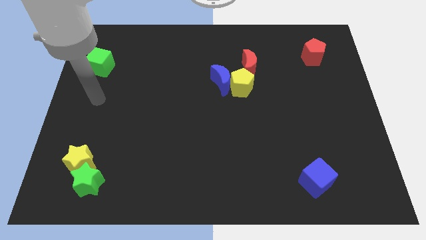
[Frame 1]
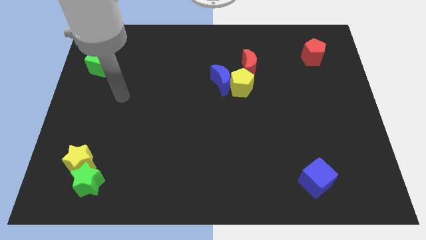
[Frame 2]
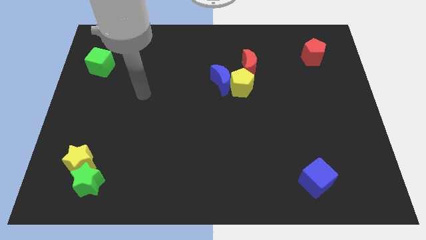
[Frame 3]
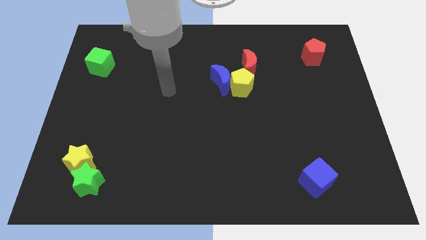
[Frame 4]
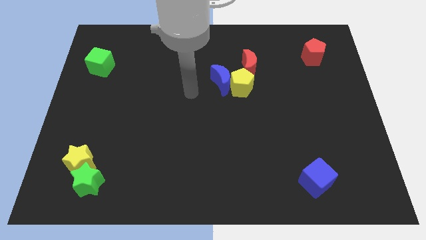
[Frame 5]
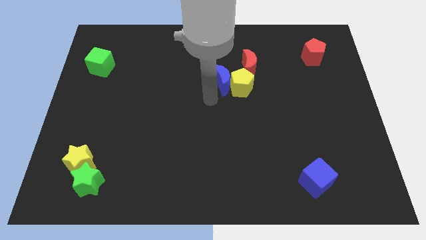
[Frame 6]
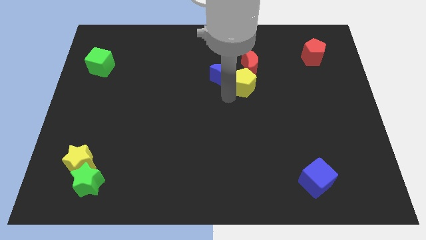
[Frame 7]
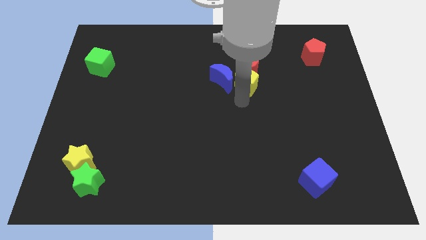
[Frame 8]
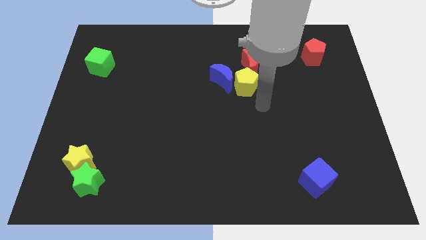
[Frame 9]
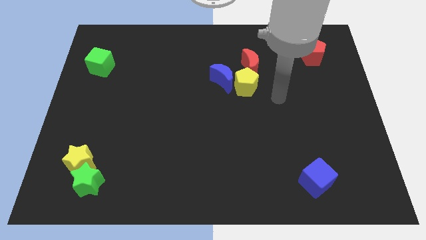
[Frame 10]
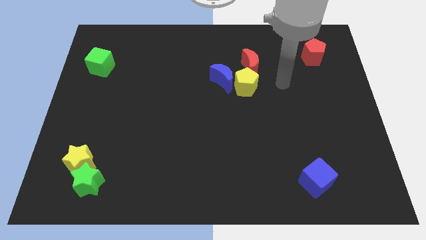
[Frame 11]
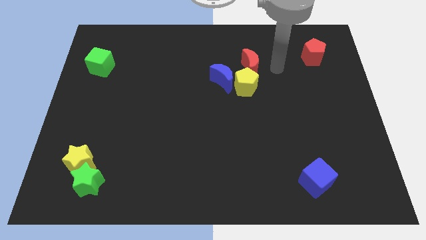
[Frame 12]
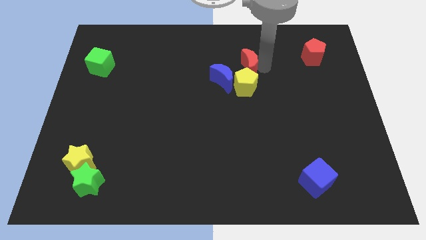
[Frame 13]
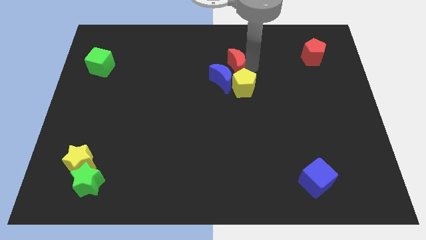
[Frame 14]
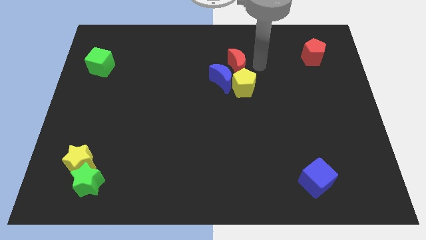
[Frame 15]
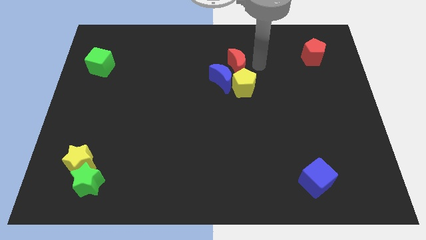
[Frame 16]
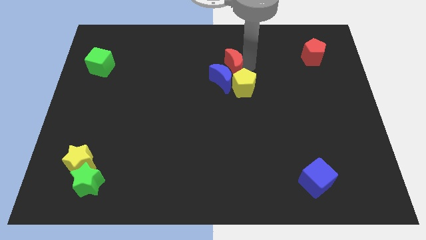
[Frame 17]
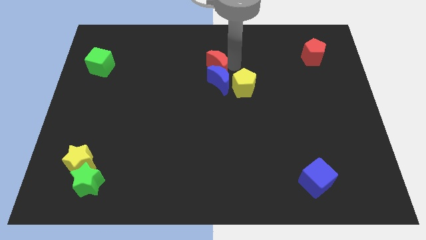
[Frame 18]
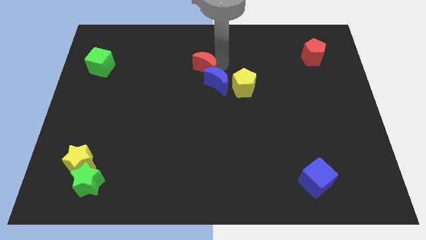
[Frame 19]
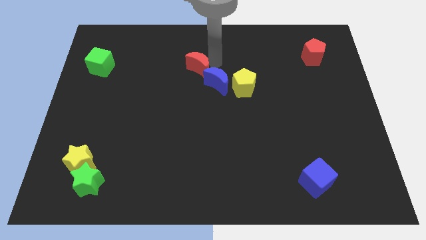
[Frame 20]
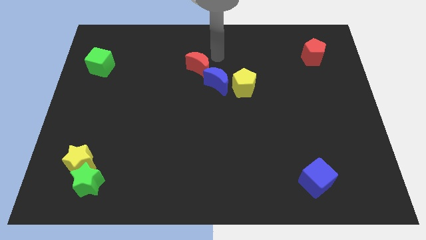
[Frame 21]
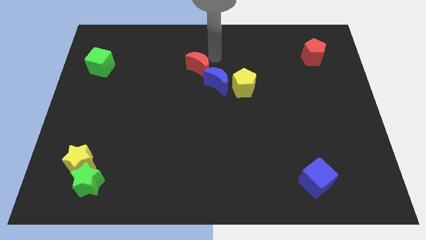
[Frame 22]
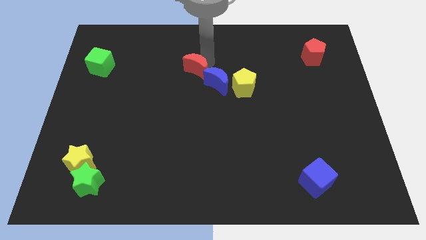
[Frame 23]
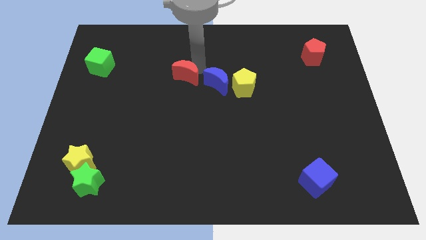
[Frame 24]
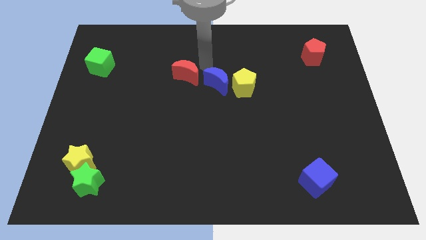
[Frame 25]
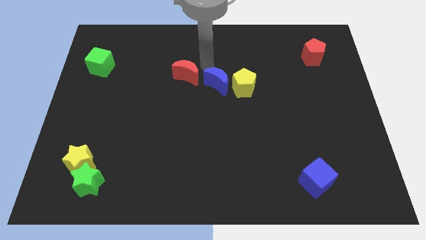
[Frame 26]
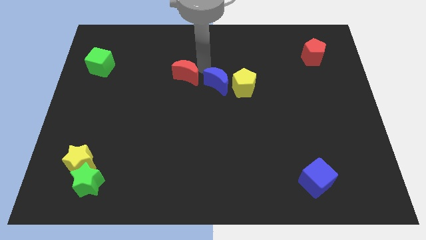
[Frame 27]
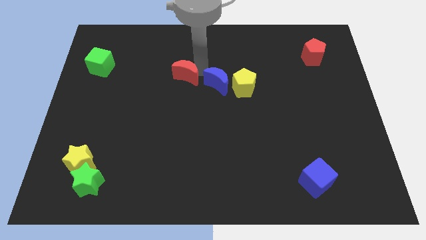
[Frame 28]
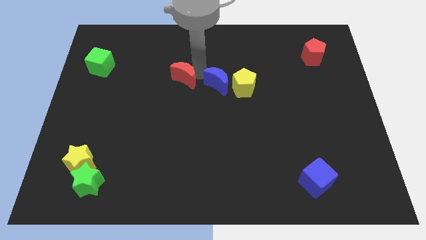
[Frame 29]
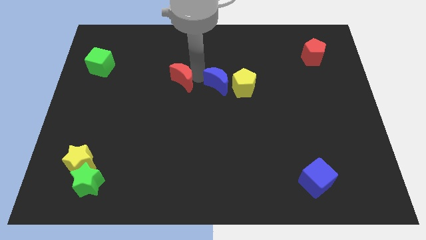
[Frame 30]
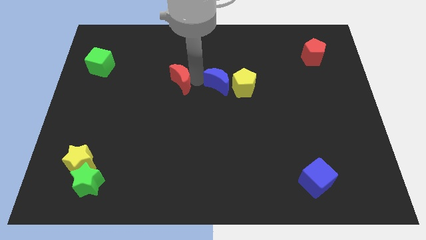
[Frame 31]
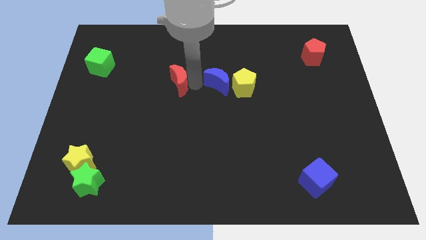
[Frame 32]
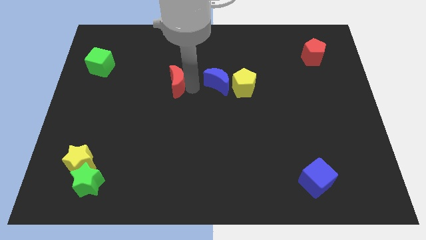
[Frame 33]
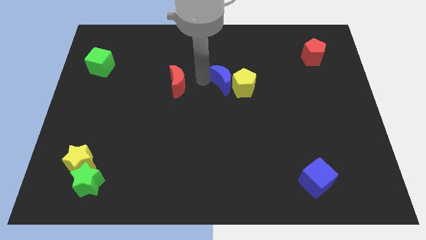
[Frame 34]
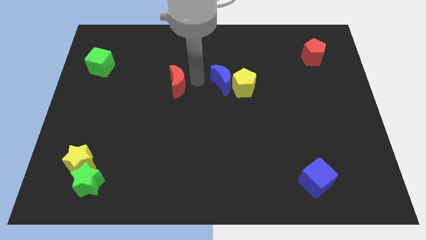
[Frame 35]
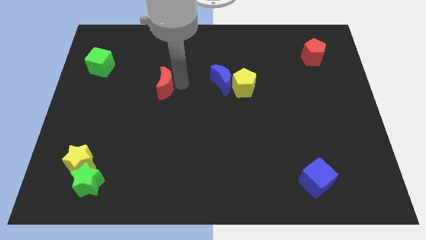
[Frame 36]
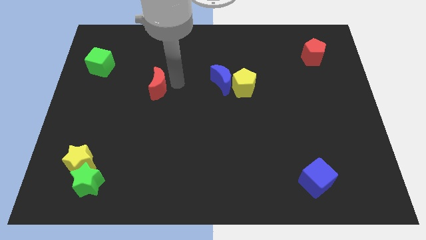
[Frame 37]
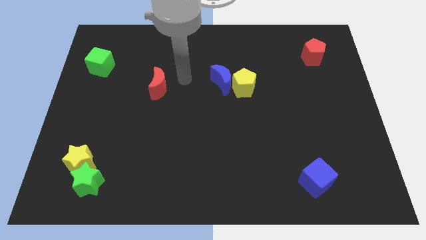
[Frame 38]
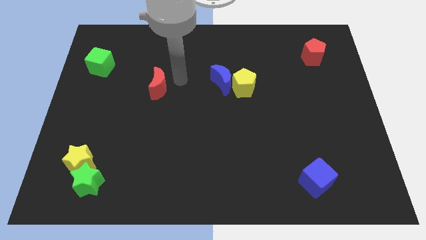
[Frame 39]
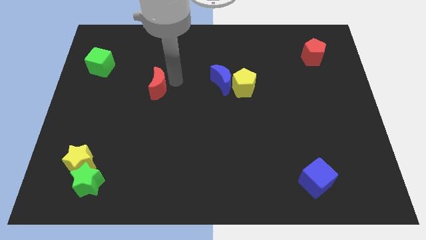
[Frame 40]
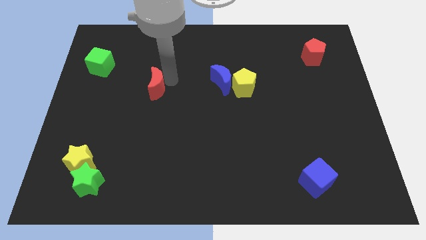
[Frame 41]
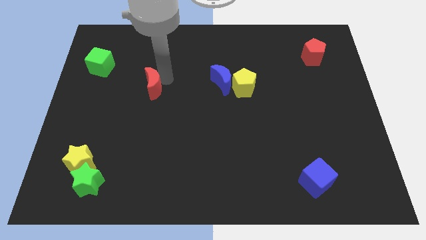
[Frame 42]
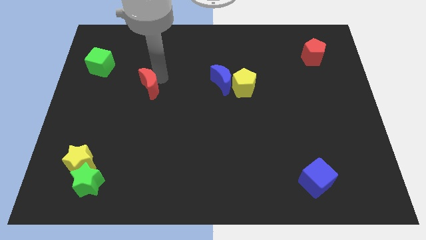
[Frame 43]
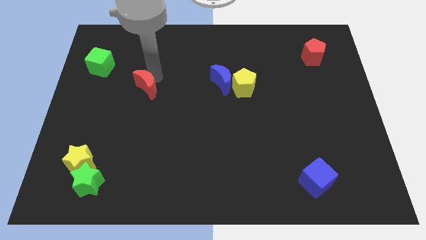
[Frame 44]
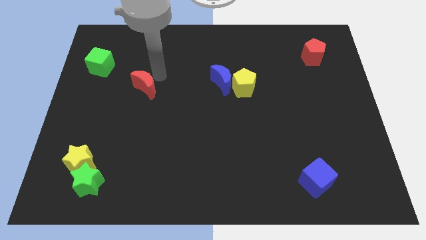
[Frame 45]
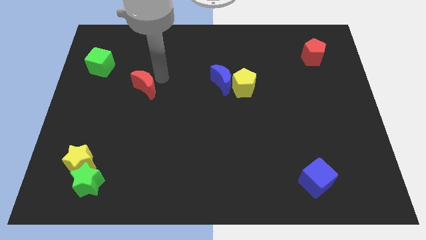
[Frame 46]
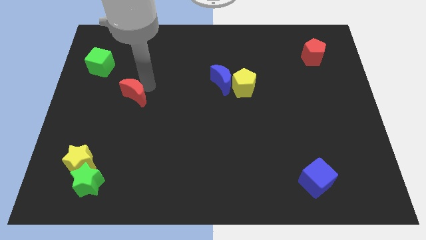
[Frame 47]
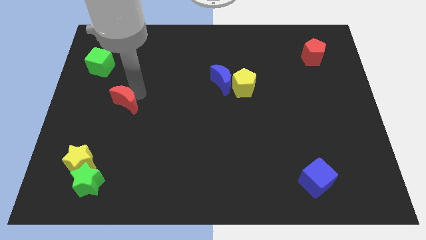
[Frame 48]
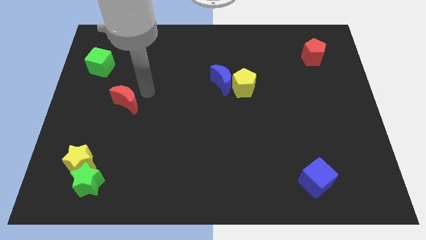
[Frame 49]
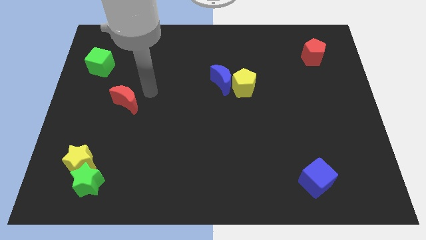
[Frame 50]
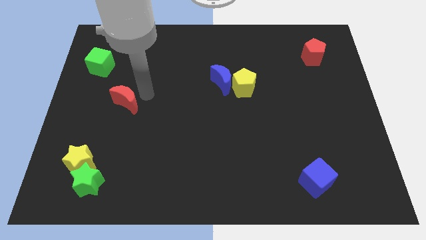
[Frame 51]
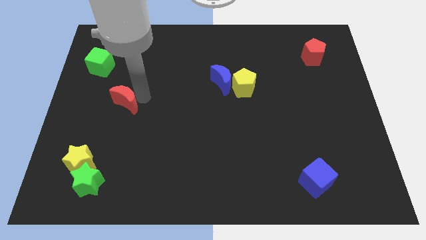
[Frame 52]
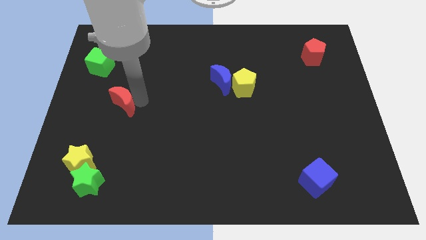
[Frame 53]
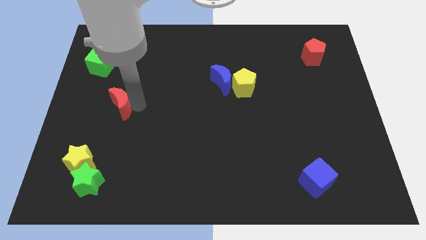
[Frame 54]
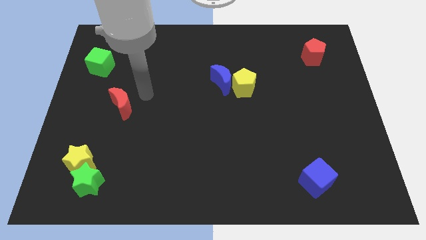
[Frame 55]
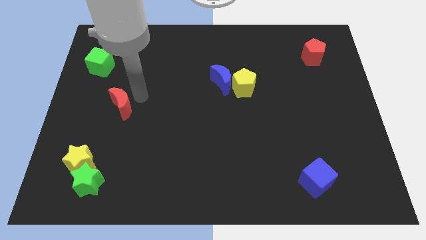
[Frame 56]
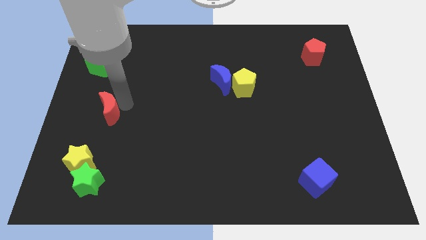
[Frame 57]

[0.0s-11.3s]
push the red moon above the yellow star
